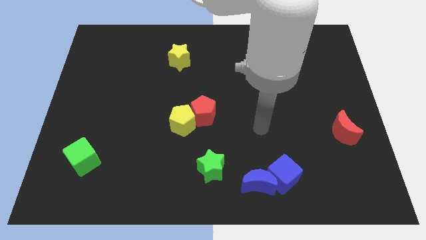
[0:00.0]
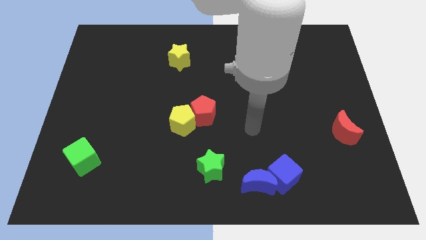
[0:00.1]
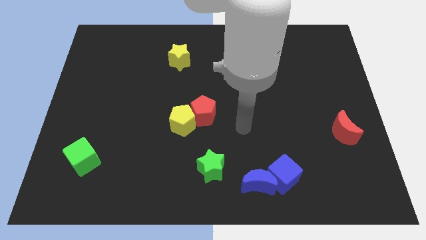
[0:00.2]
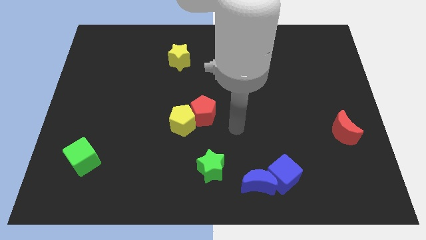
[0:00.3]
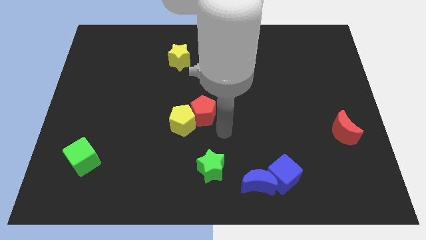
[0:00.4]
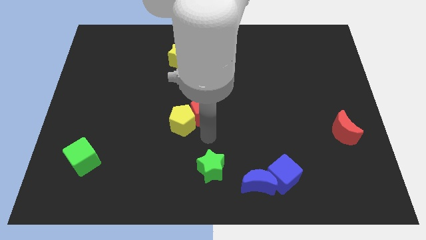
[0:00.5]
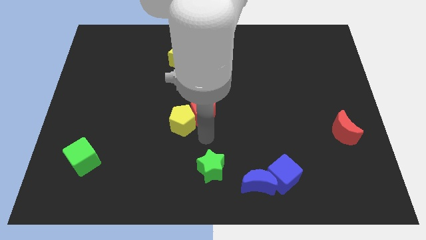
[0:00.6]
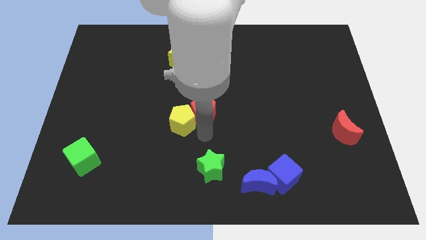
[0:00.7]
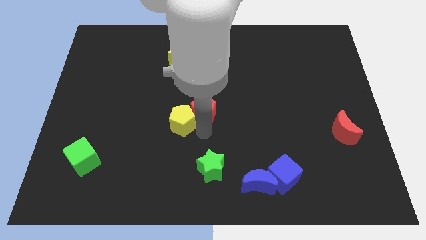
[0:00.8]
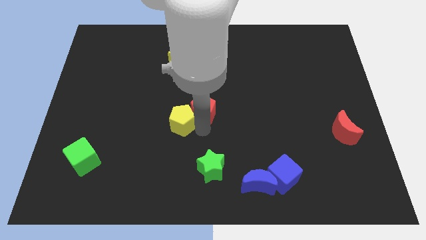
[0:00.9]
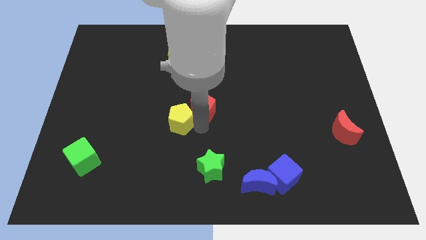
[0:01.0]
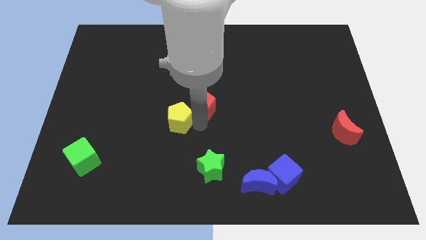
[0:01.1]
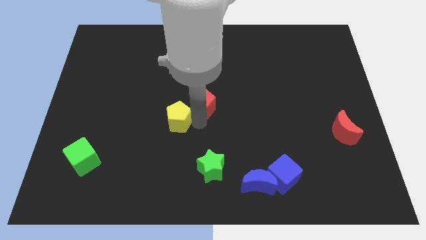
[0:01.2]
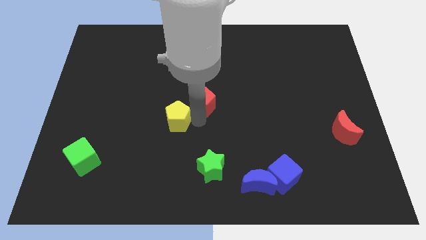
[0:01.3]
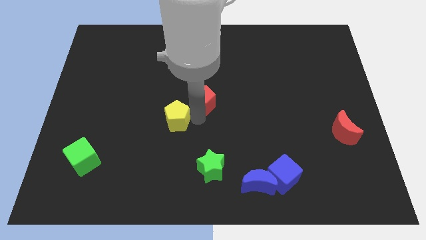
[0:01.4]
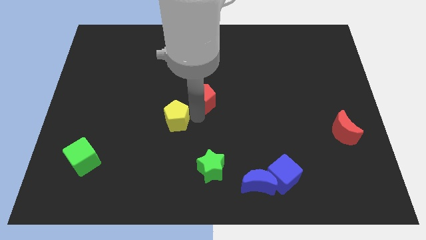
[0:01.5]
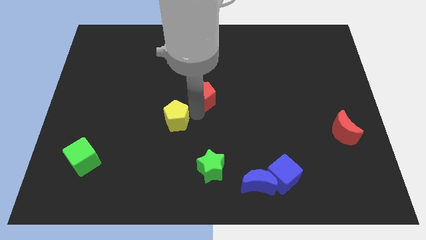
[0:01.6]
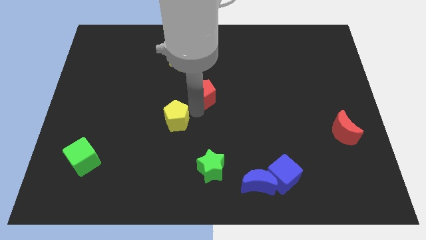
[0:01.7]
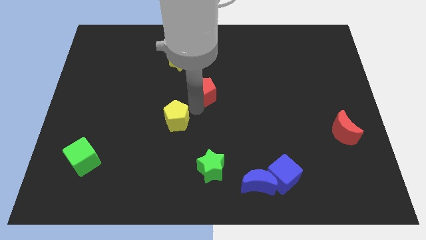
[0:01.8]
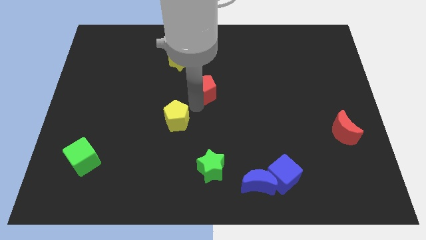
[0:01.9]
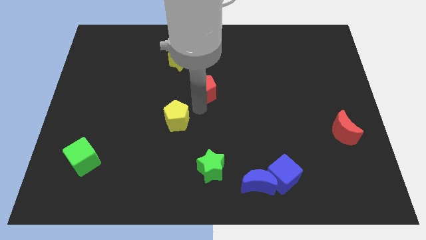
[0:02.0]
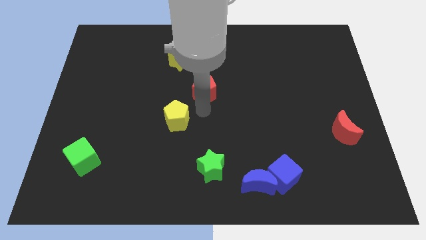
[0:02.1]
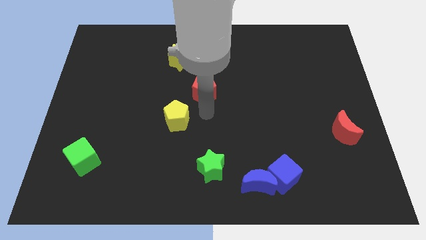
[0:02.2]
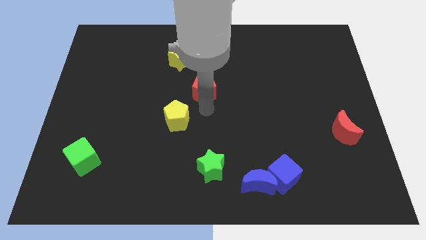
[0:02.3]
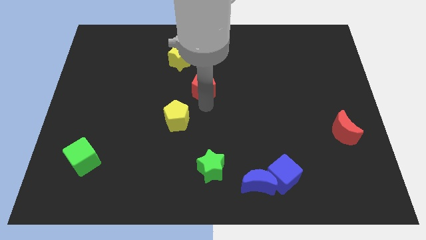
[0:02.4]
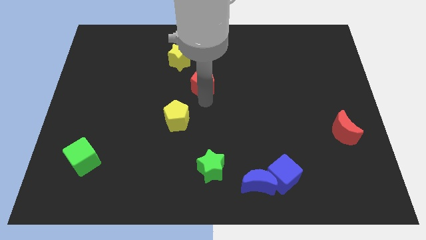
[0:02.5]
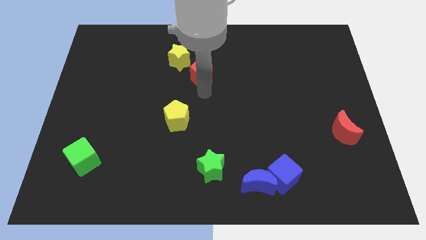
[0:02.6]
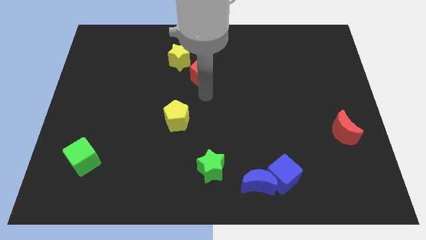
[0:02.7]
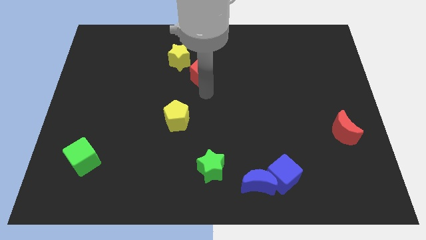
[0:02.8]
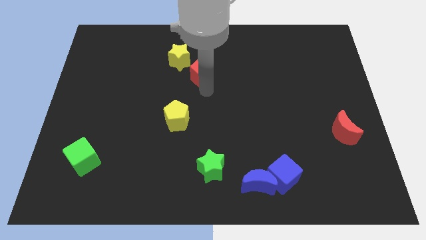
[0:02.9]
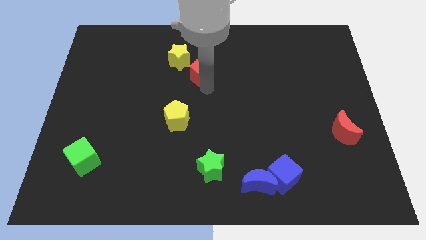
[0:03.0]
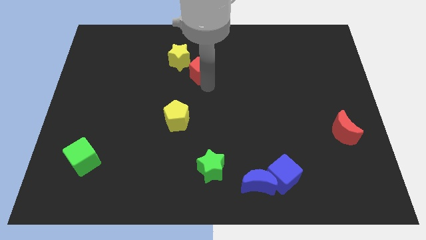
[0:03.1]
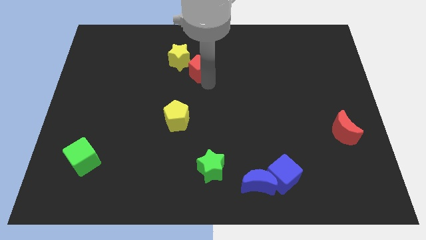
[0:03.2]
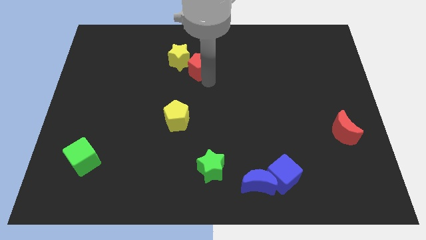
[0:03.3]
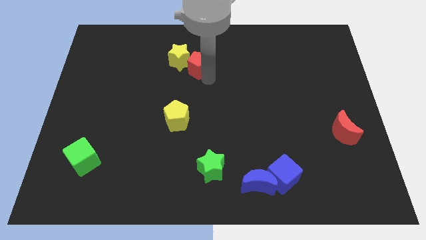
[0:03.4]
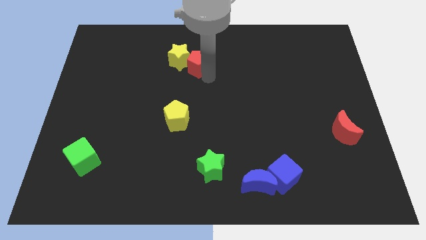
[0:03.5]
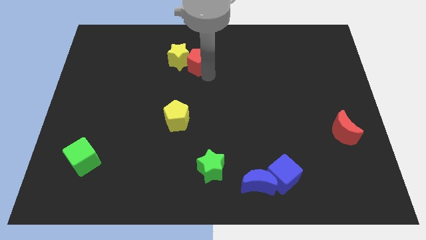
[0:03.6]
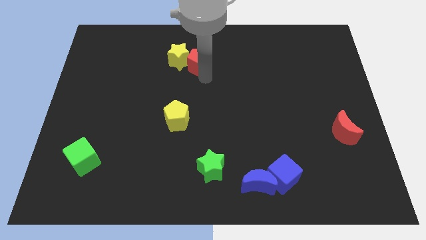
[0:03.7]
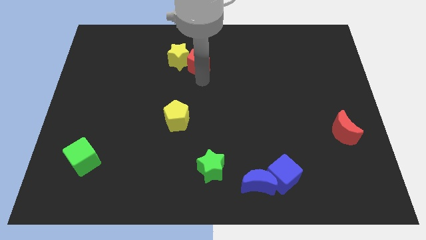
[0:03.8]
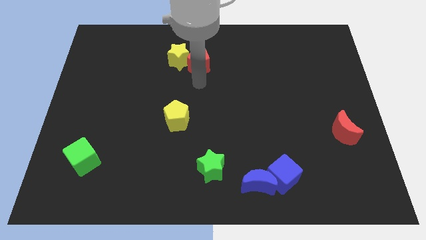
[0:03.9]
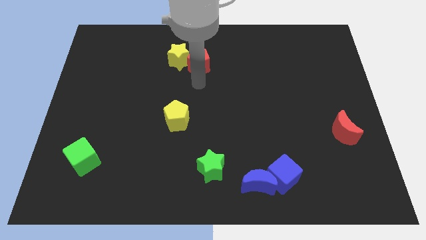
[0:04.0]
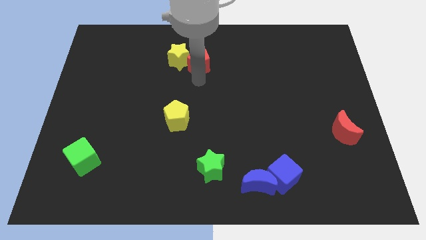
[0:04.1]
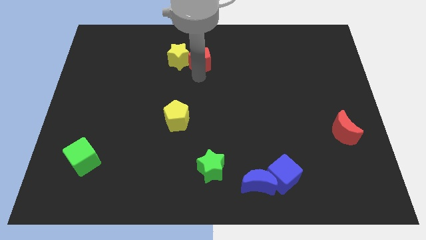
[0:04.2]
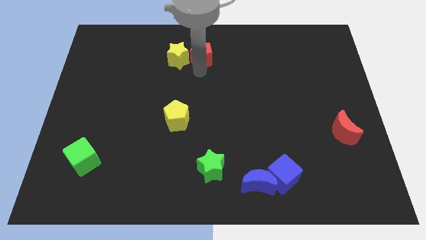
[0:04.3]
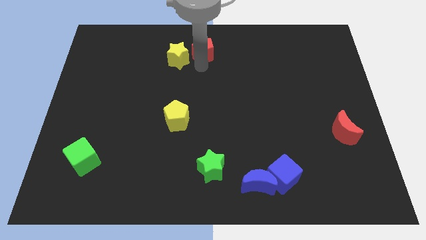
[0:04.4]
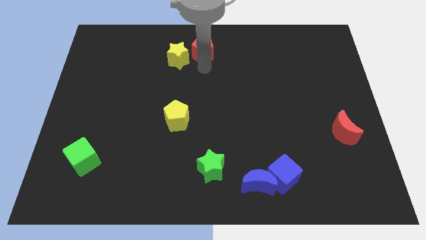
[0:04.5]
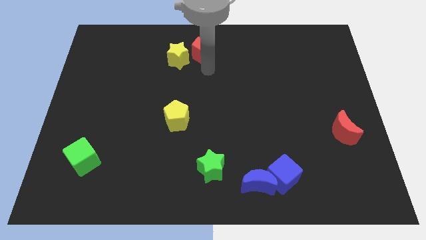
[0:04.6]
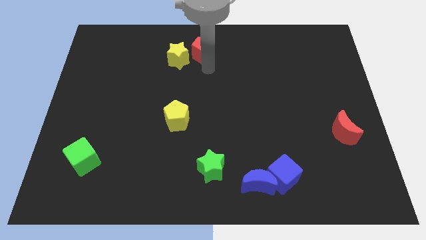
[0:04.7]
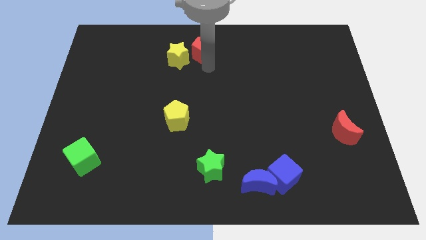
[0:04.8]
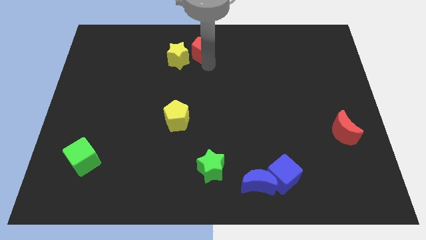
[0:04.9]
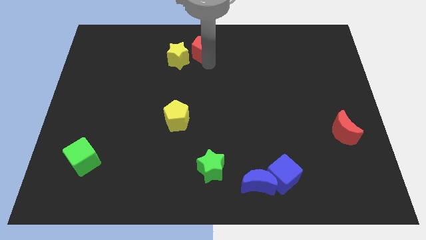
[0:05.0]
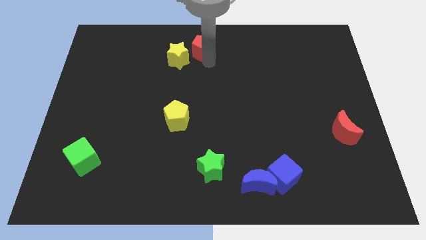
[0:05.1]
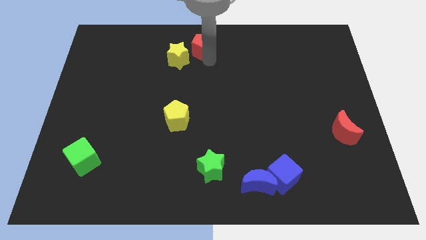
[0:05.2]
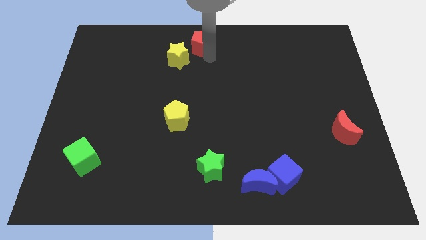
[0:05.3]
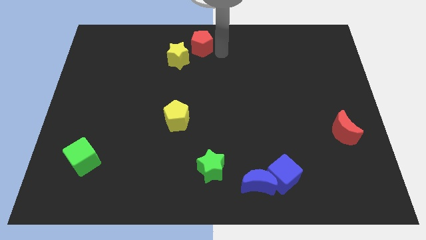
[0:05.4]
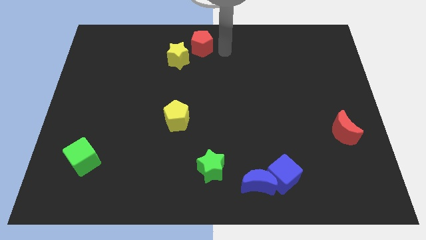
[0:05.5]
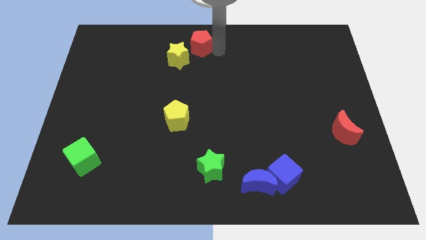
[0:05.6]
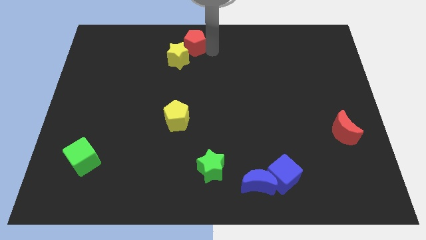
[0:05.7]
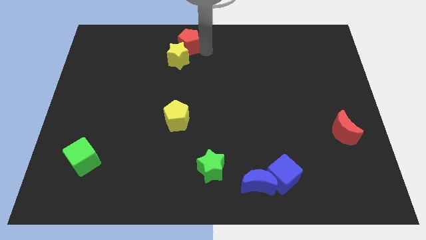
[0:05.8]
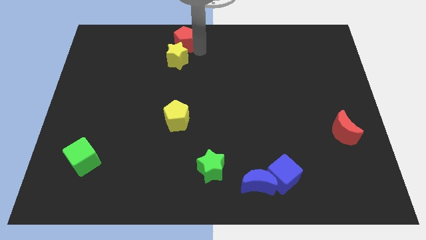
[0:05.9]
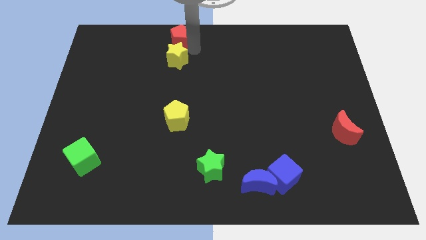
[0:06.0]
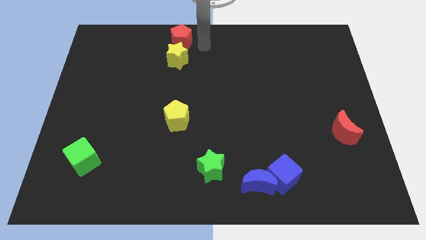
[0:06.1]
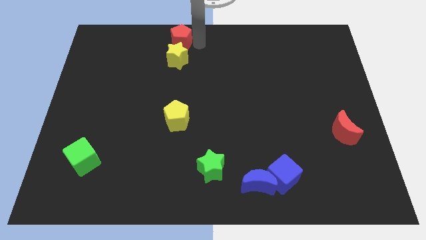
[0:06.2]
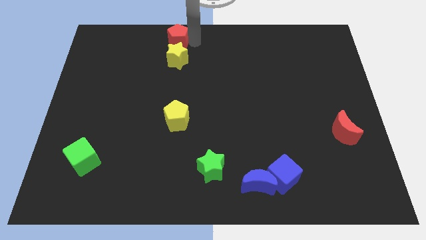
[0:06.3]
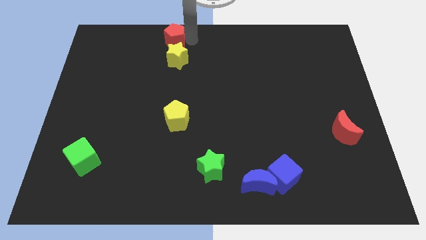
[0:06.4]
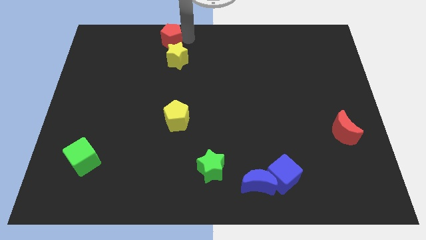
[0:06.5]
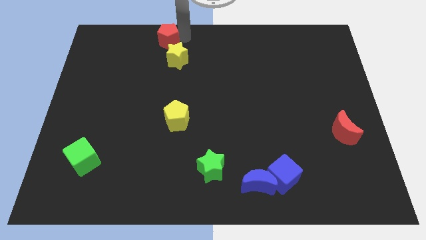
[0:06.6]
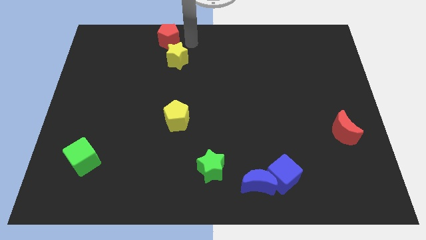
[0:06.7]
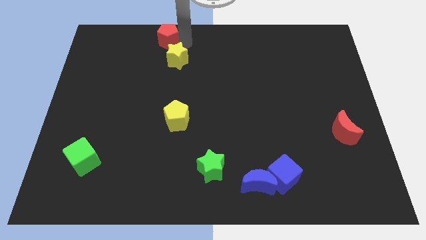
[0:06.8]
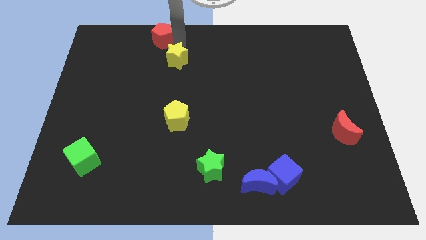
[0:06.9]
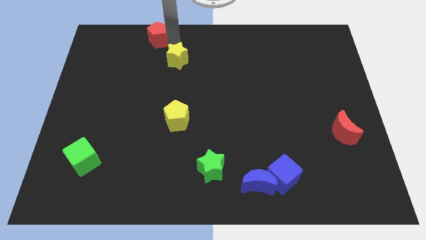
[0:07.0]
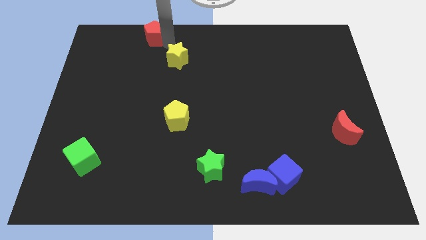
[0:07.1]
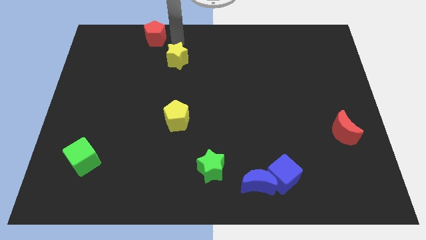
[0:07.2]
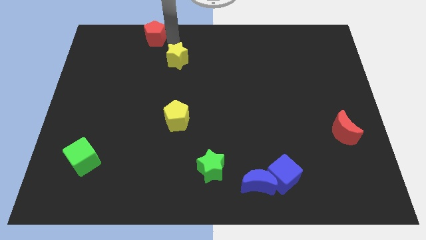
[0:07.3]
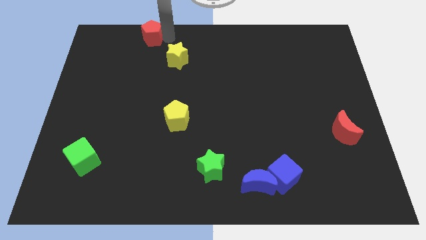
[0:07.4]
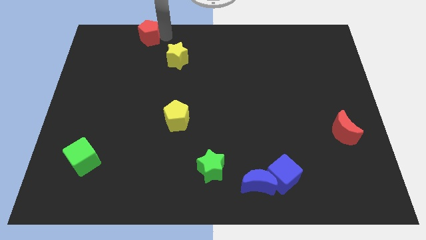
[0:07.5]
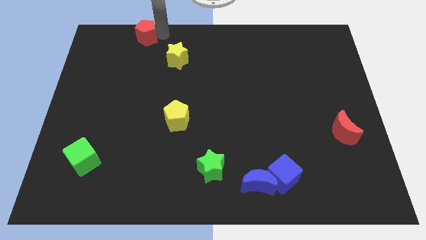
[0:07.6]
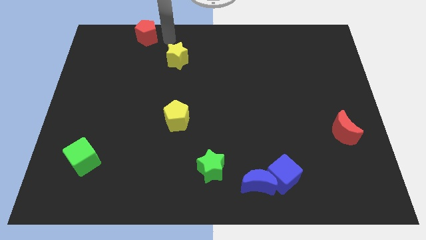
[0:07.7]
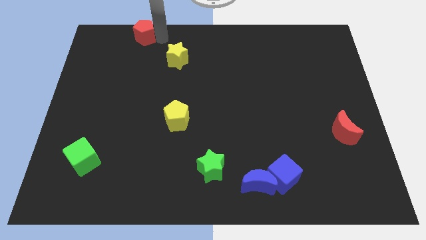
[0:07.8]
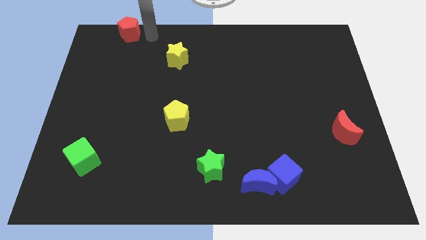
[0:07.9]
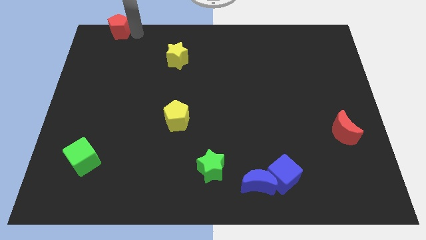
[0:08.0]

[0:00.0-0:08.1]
slide the red pentagon to the top left
